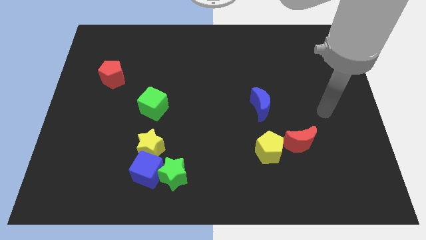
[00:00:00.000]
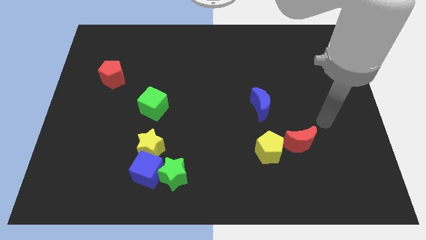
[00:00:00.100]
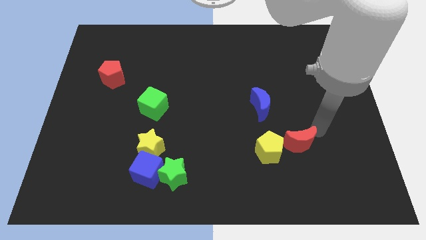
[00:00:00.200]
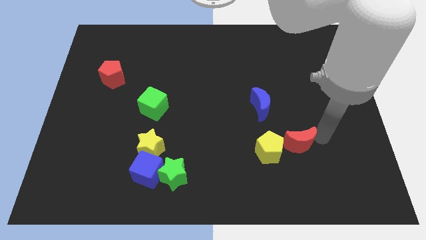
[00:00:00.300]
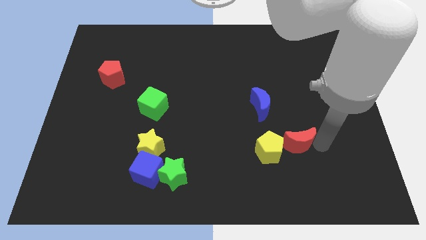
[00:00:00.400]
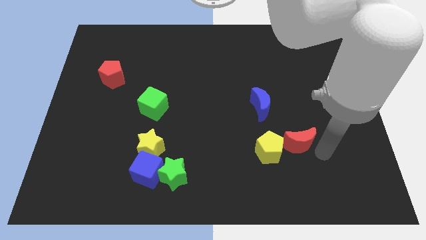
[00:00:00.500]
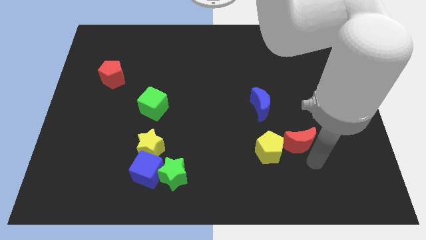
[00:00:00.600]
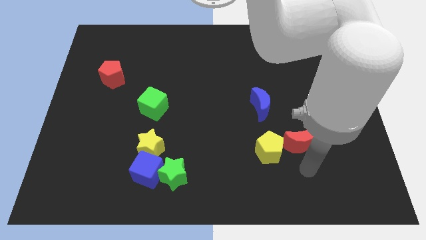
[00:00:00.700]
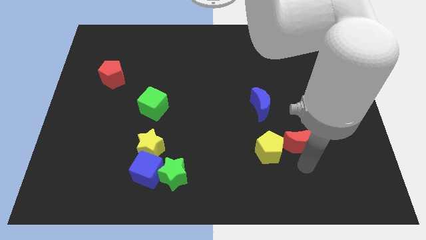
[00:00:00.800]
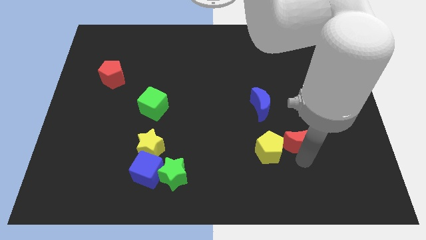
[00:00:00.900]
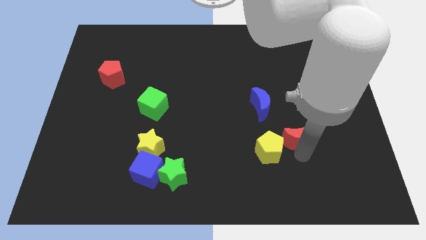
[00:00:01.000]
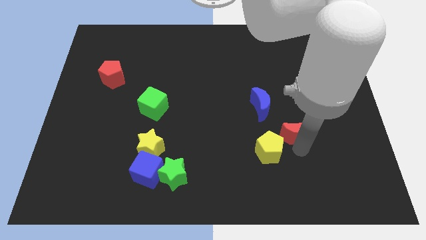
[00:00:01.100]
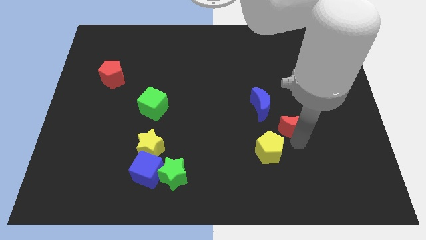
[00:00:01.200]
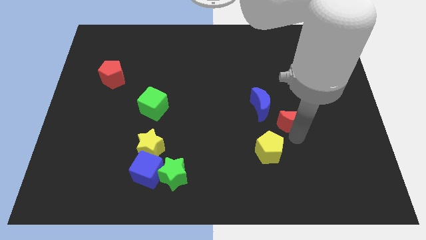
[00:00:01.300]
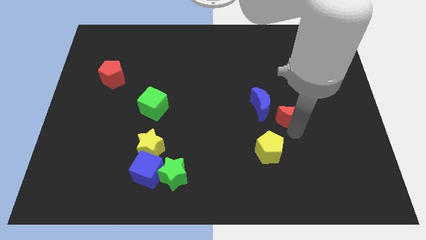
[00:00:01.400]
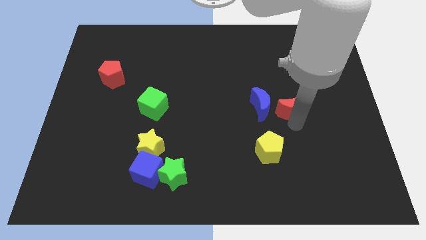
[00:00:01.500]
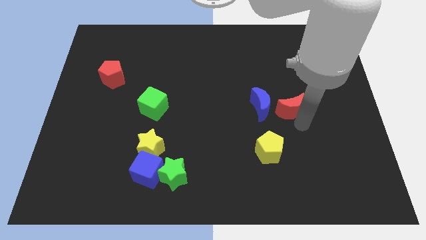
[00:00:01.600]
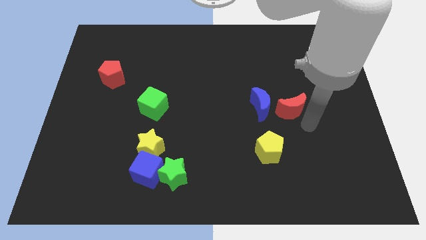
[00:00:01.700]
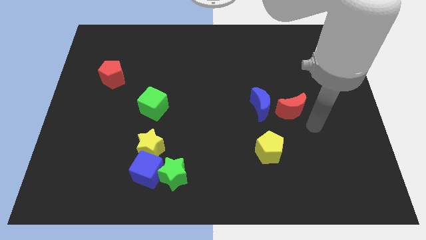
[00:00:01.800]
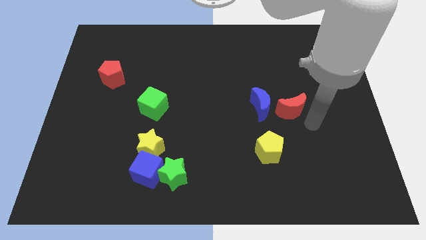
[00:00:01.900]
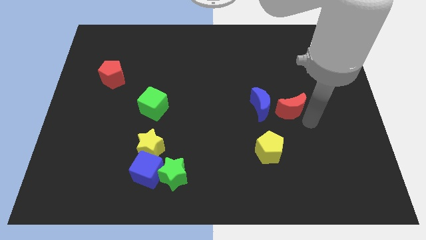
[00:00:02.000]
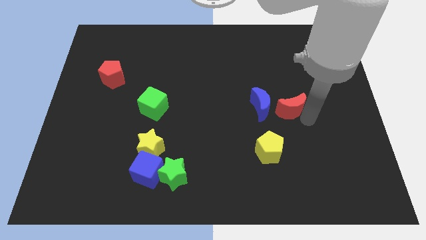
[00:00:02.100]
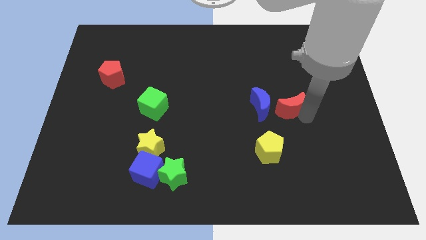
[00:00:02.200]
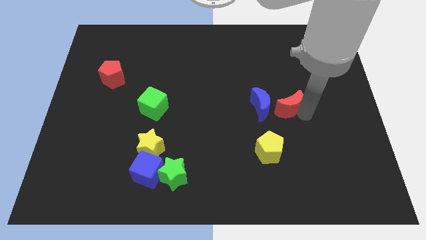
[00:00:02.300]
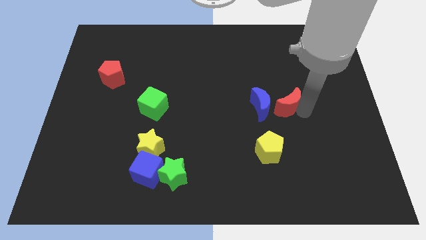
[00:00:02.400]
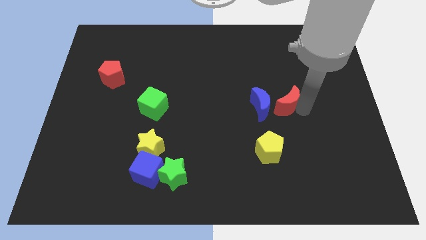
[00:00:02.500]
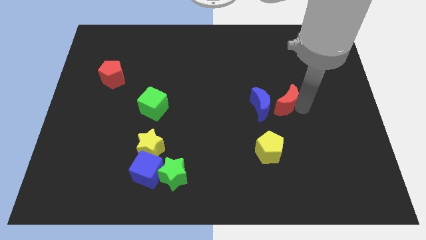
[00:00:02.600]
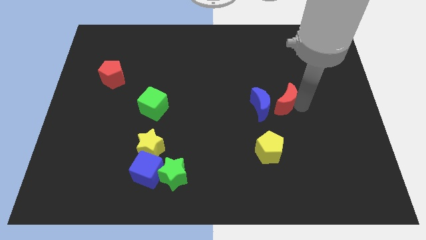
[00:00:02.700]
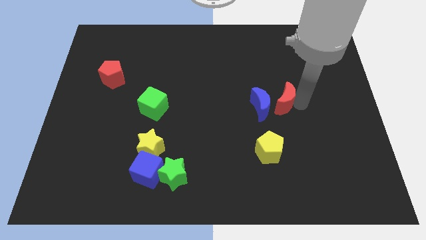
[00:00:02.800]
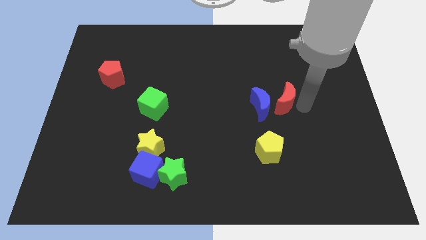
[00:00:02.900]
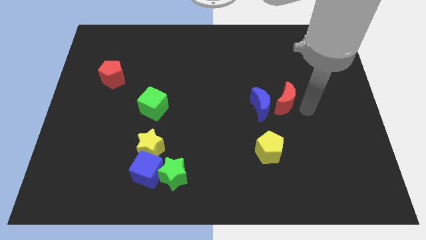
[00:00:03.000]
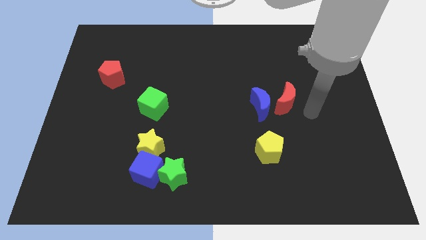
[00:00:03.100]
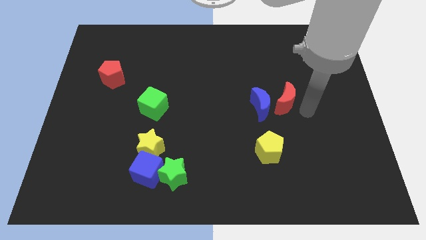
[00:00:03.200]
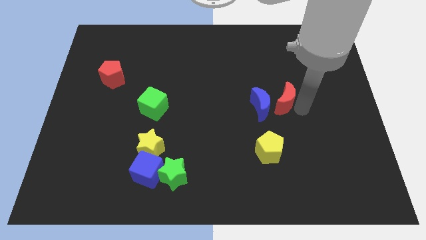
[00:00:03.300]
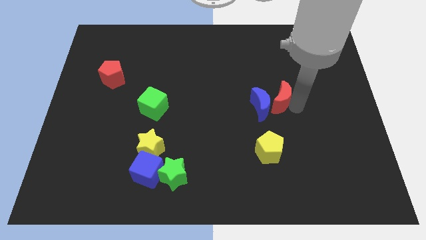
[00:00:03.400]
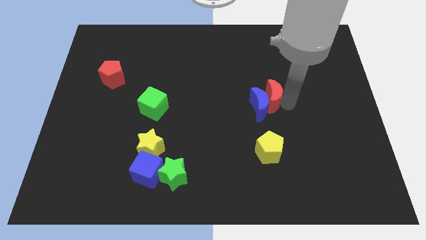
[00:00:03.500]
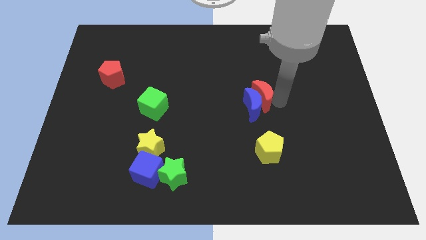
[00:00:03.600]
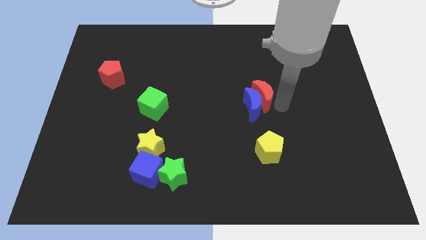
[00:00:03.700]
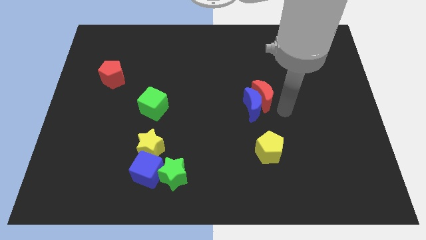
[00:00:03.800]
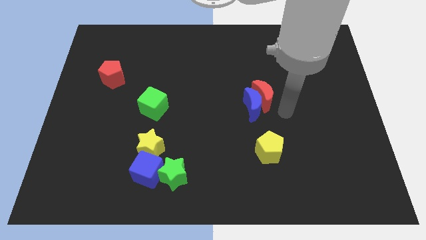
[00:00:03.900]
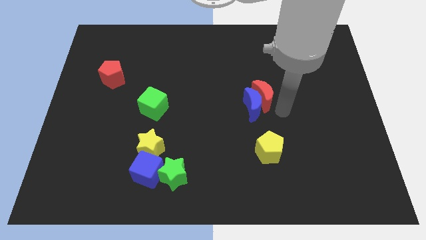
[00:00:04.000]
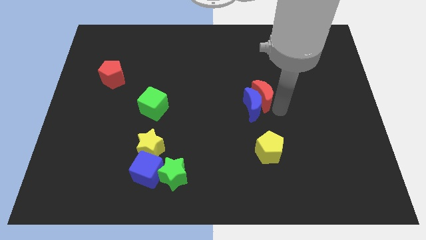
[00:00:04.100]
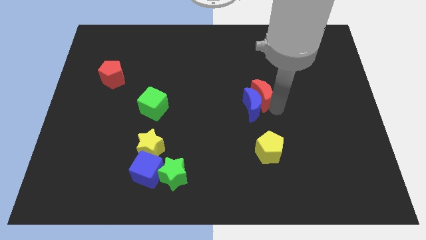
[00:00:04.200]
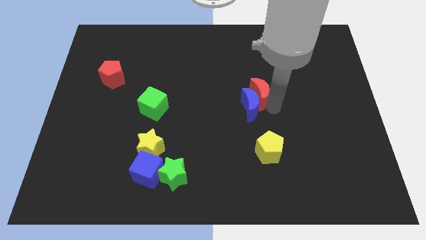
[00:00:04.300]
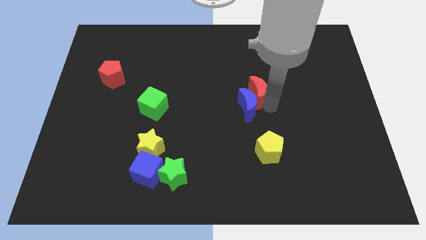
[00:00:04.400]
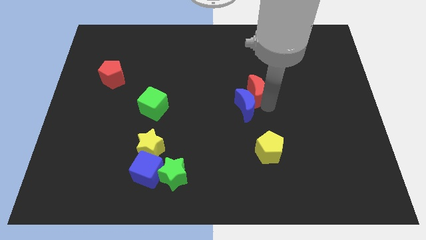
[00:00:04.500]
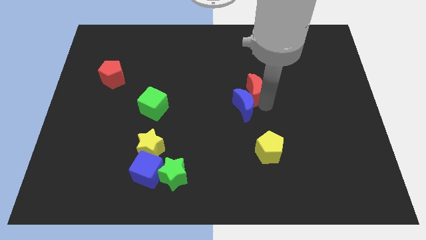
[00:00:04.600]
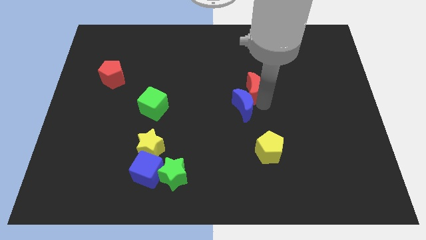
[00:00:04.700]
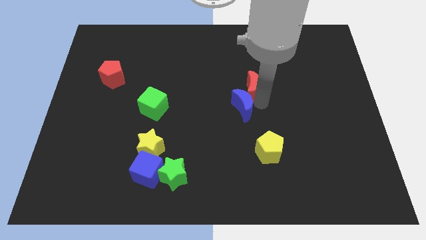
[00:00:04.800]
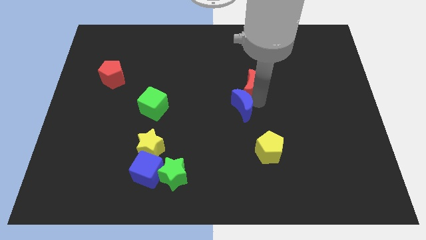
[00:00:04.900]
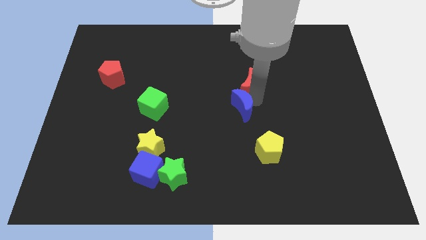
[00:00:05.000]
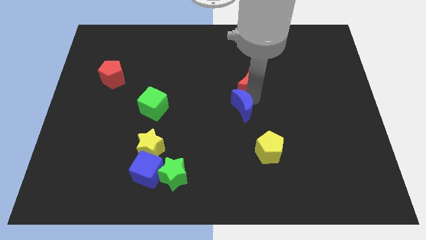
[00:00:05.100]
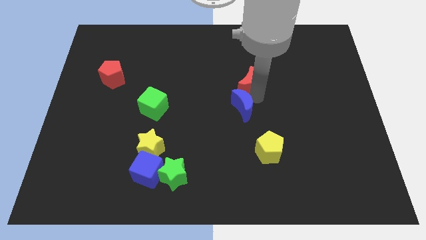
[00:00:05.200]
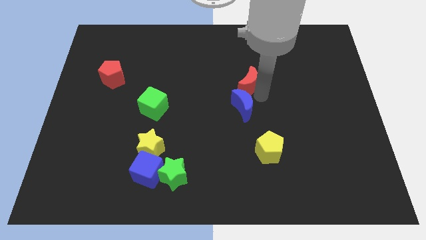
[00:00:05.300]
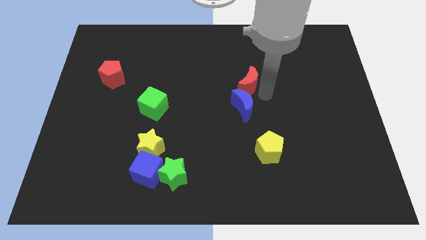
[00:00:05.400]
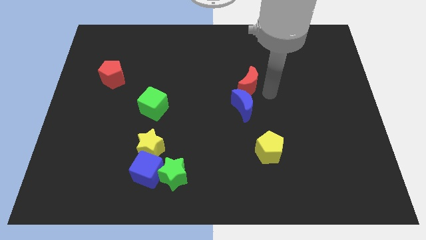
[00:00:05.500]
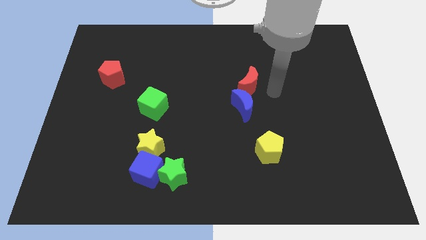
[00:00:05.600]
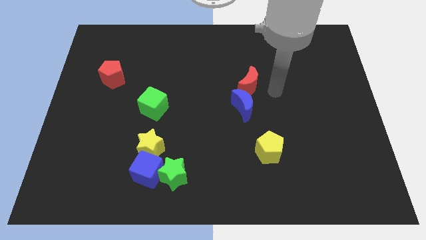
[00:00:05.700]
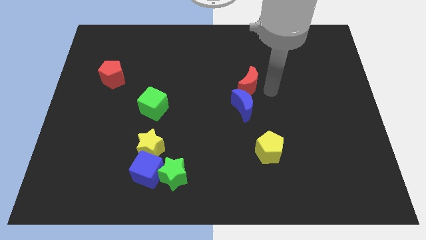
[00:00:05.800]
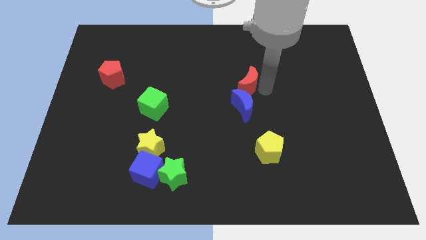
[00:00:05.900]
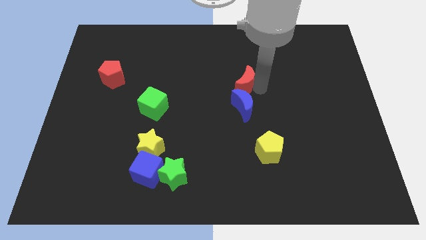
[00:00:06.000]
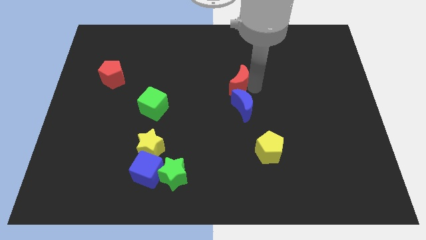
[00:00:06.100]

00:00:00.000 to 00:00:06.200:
move the red moon upwards and left diagonally

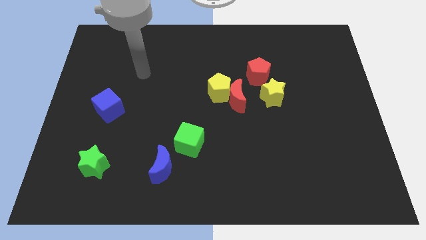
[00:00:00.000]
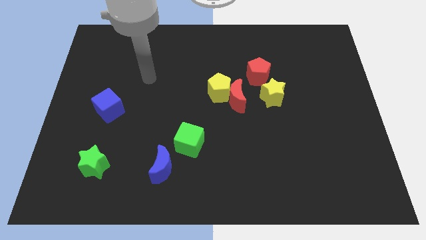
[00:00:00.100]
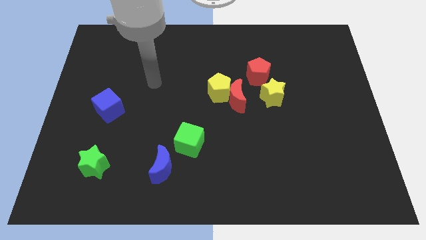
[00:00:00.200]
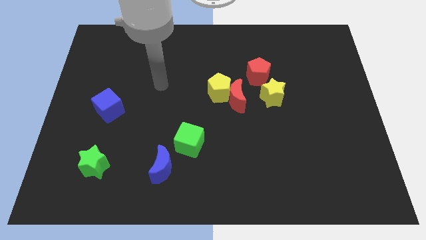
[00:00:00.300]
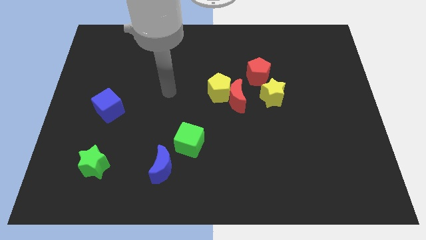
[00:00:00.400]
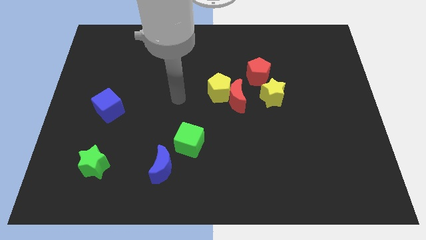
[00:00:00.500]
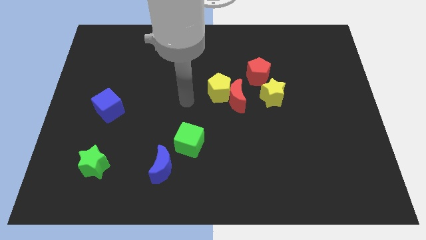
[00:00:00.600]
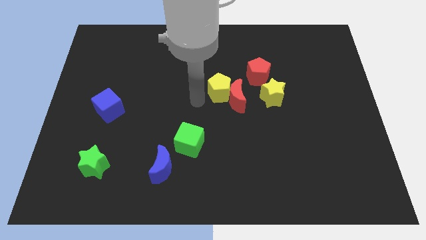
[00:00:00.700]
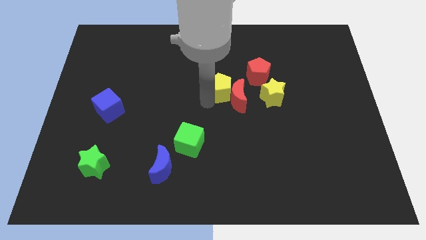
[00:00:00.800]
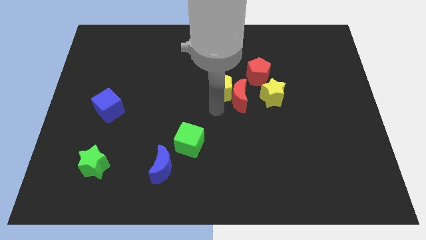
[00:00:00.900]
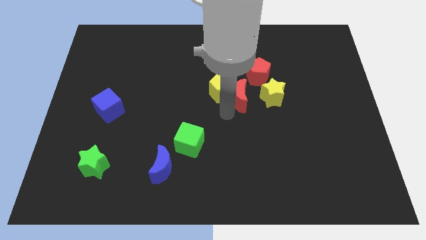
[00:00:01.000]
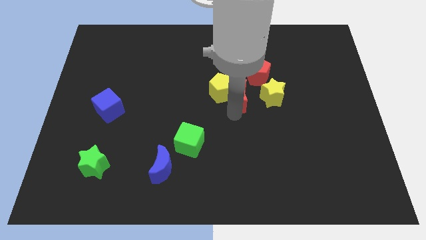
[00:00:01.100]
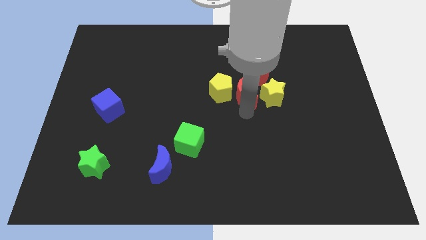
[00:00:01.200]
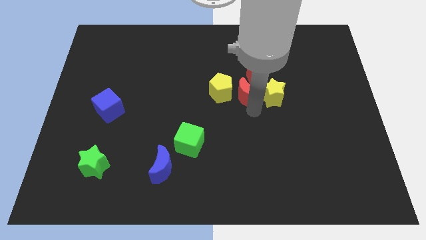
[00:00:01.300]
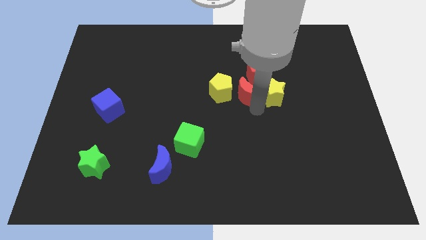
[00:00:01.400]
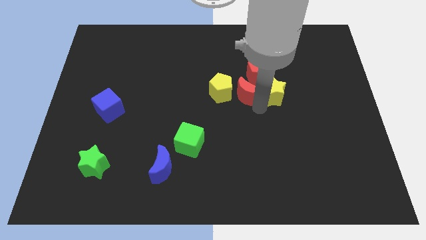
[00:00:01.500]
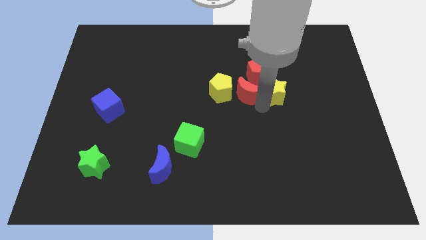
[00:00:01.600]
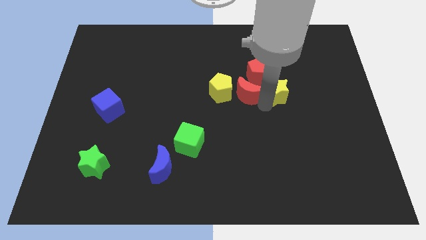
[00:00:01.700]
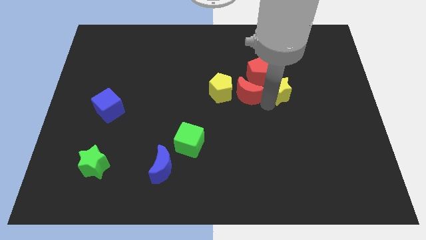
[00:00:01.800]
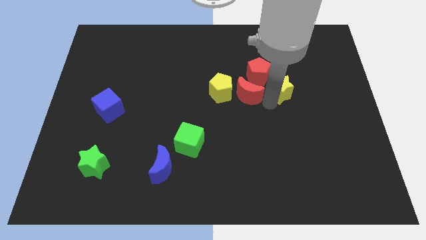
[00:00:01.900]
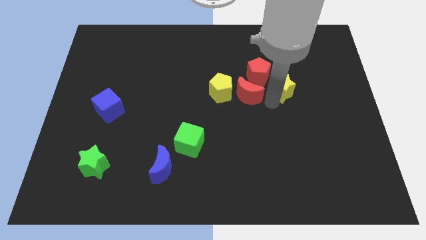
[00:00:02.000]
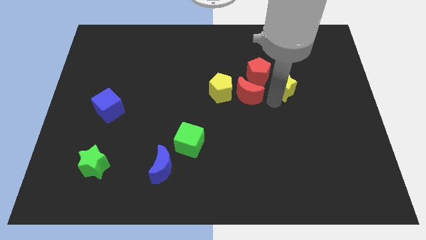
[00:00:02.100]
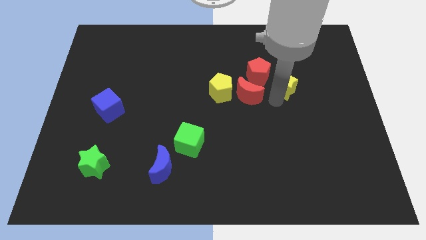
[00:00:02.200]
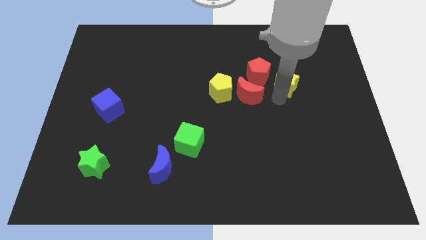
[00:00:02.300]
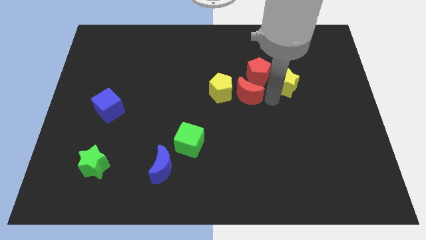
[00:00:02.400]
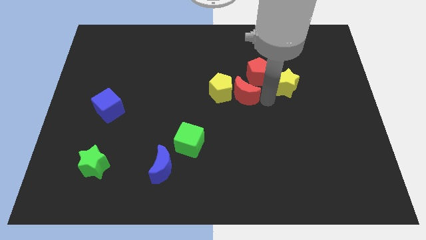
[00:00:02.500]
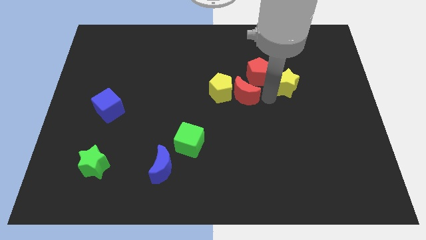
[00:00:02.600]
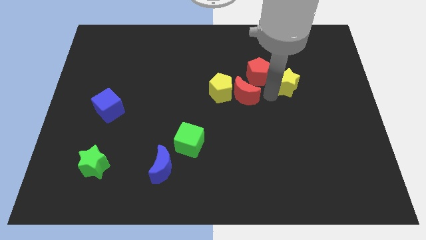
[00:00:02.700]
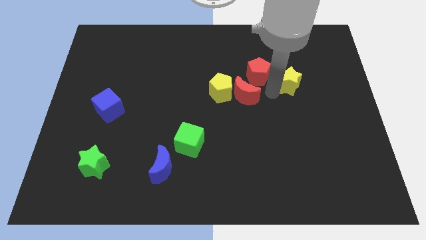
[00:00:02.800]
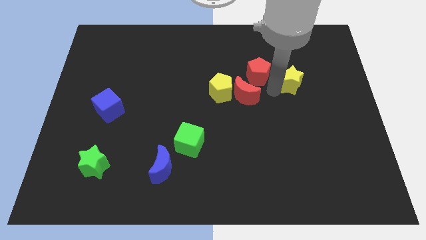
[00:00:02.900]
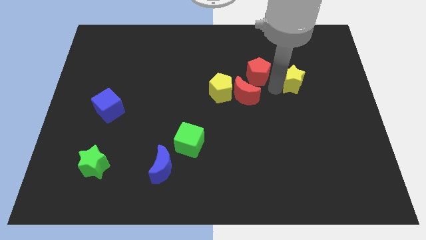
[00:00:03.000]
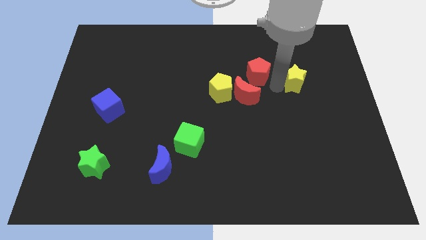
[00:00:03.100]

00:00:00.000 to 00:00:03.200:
slightly push the yellow star diagonally up and to the right
